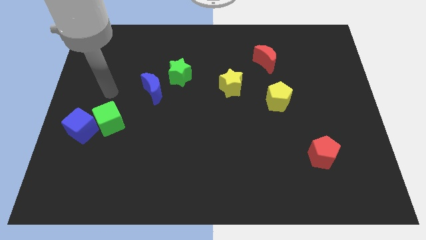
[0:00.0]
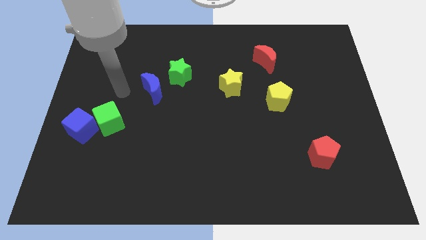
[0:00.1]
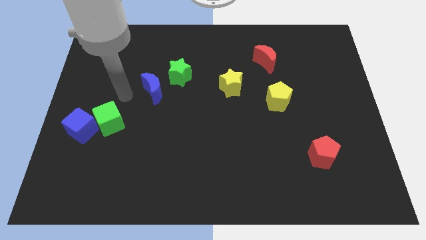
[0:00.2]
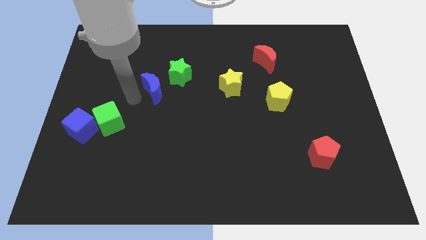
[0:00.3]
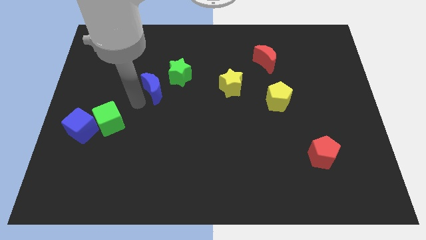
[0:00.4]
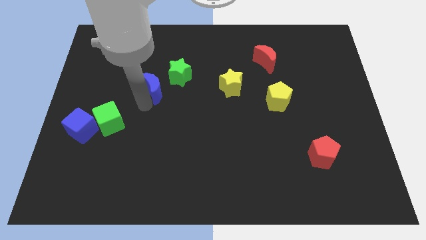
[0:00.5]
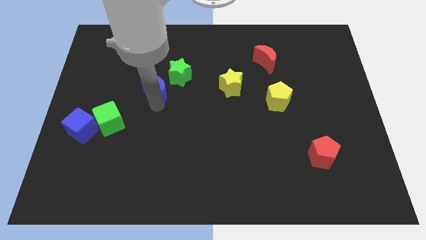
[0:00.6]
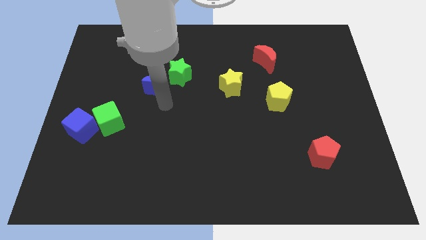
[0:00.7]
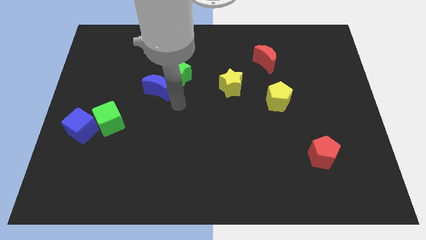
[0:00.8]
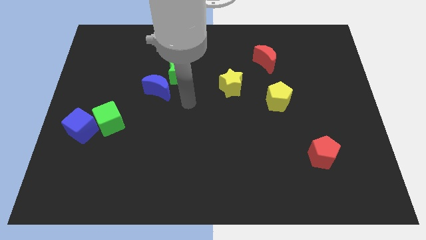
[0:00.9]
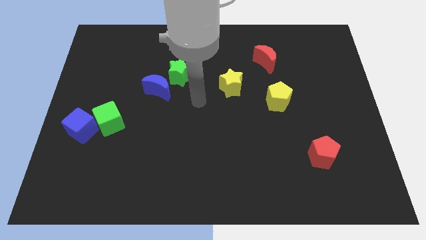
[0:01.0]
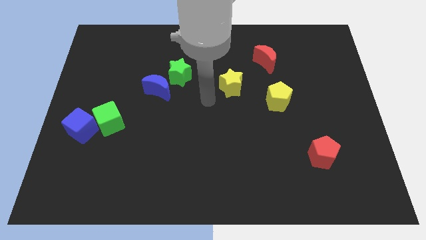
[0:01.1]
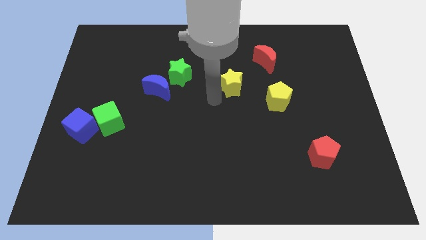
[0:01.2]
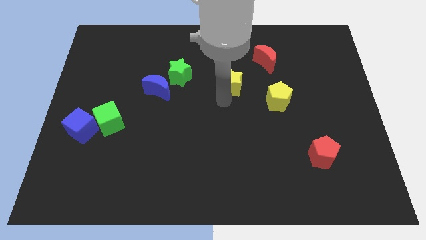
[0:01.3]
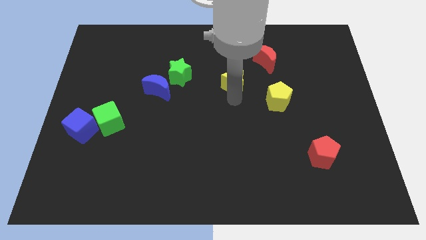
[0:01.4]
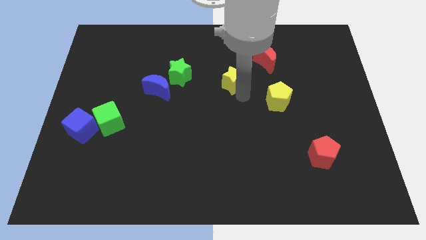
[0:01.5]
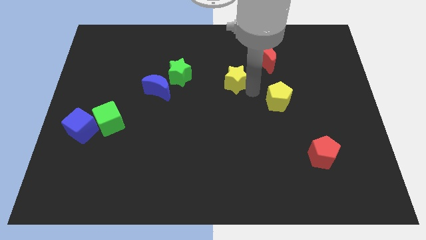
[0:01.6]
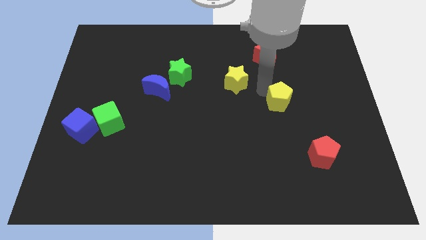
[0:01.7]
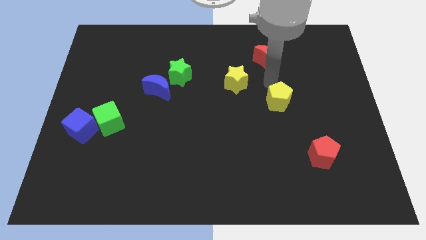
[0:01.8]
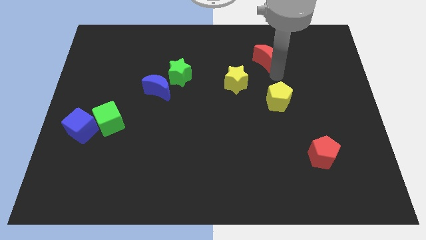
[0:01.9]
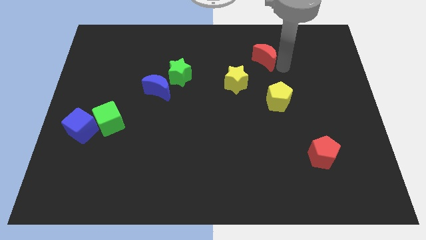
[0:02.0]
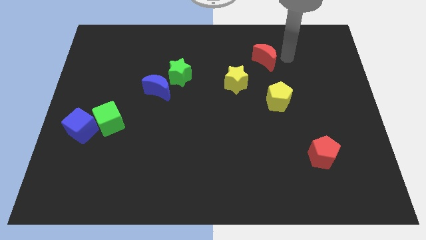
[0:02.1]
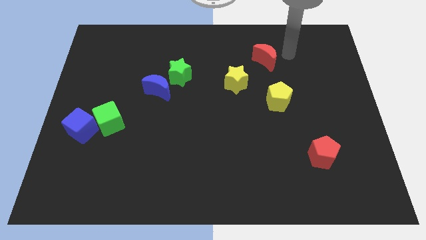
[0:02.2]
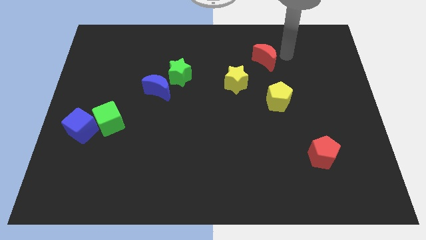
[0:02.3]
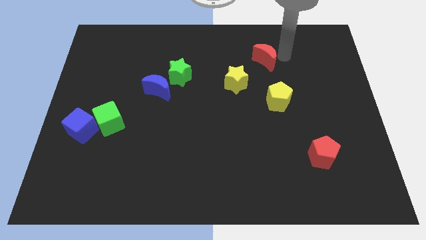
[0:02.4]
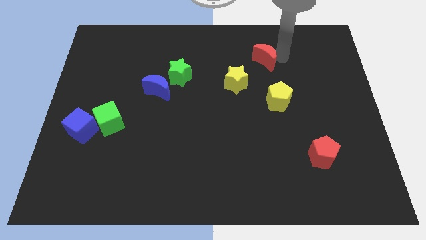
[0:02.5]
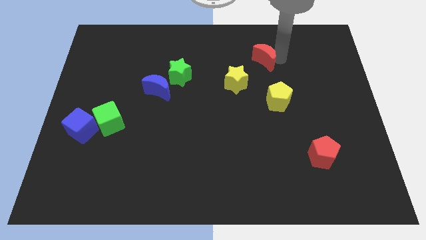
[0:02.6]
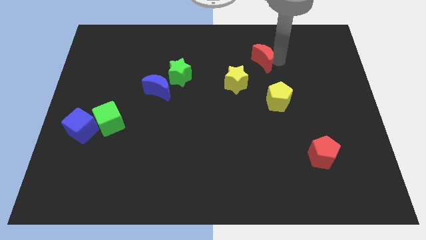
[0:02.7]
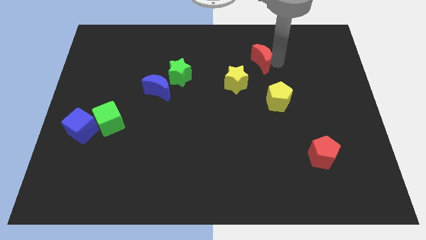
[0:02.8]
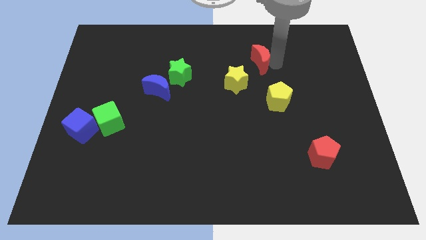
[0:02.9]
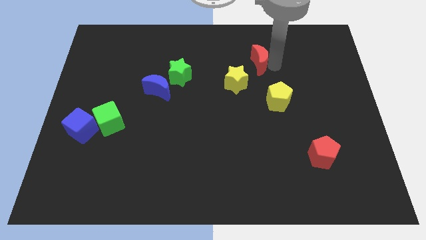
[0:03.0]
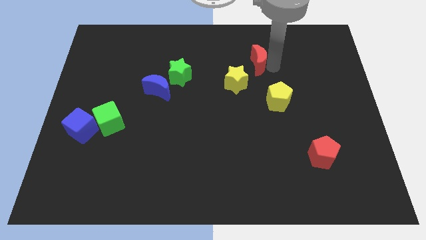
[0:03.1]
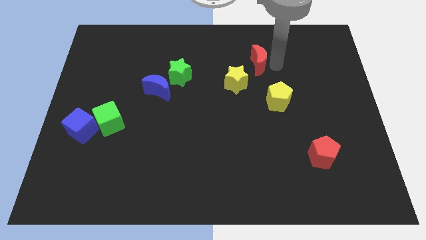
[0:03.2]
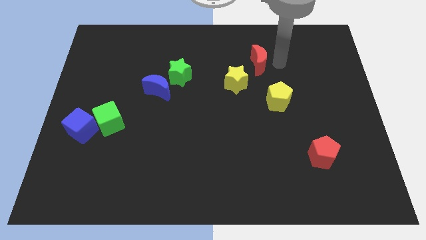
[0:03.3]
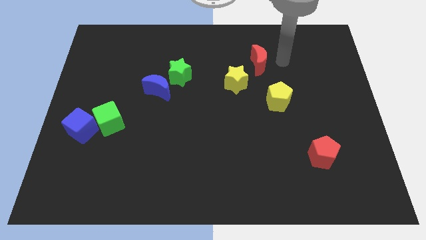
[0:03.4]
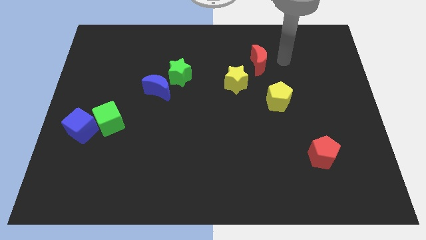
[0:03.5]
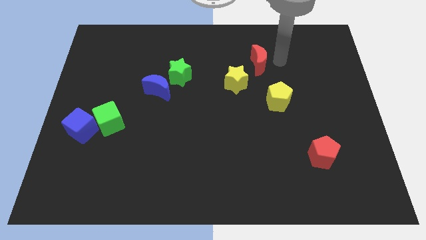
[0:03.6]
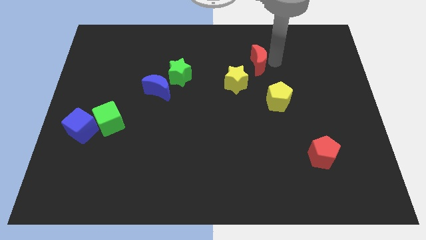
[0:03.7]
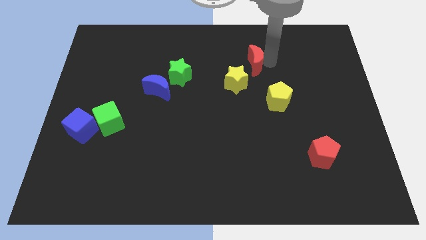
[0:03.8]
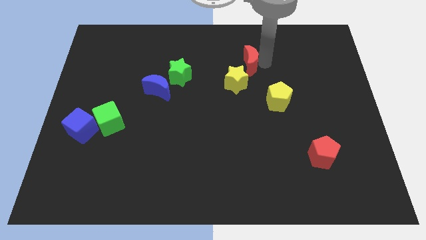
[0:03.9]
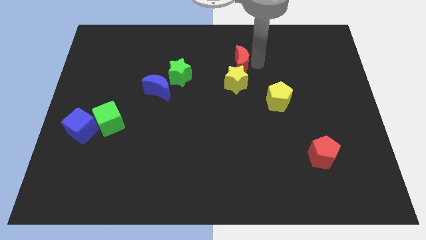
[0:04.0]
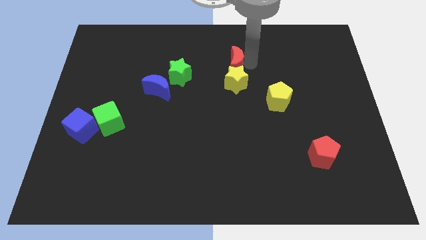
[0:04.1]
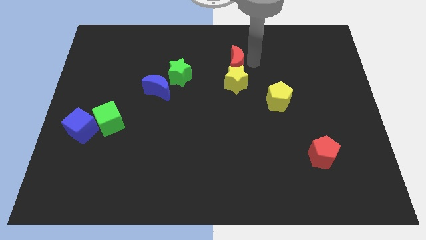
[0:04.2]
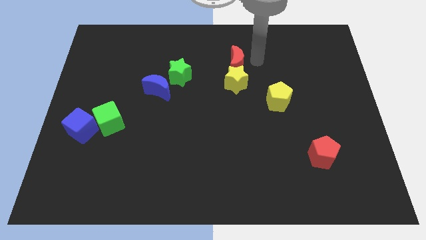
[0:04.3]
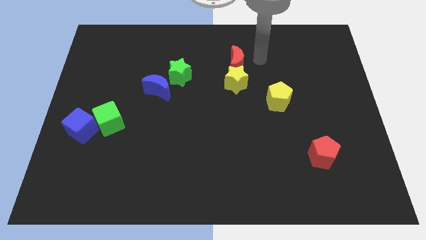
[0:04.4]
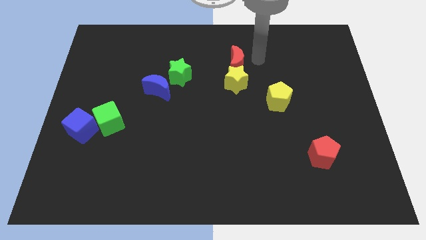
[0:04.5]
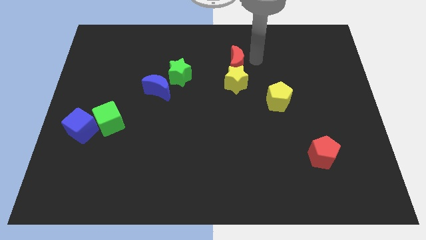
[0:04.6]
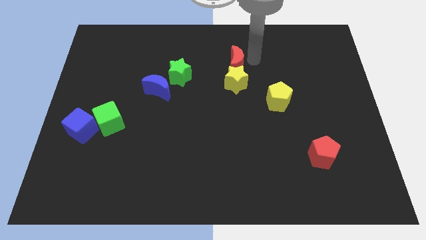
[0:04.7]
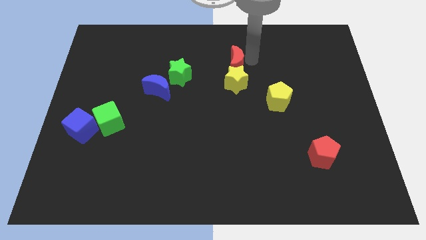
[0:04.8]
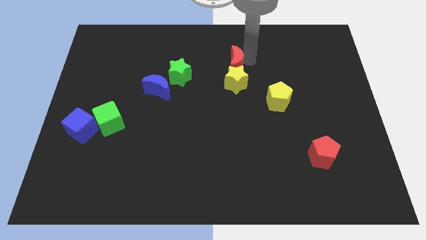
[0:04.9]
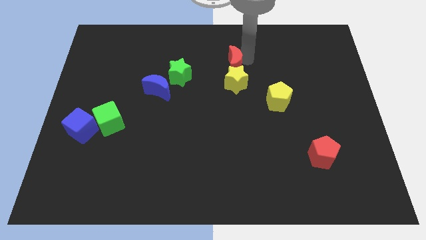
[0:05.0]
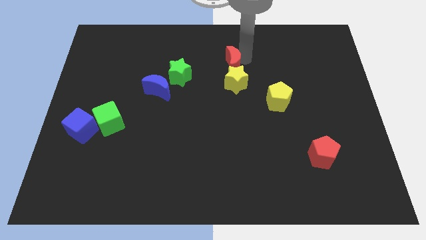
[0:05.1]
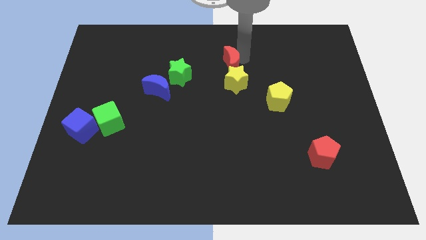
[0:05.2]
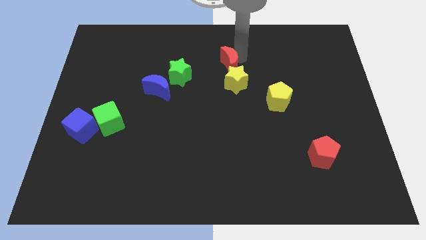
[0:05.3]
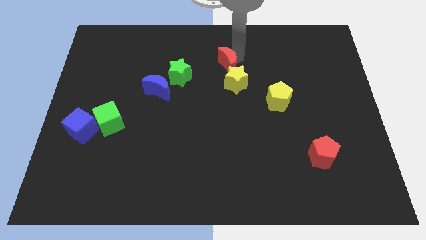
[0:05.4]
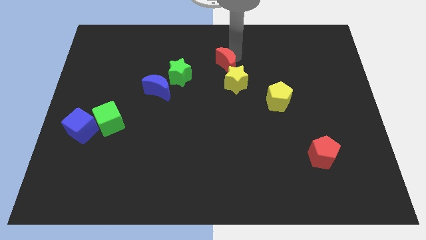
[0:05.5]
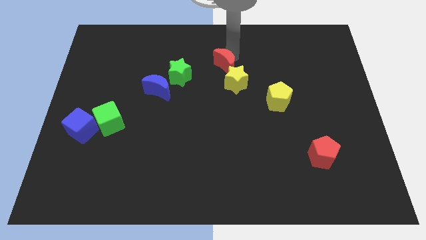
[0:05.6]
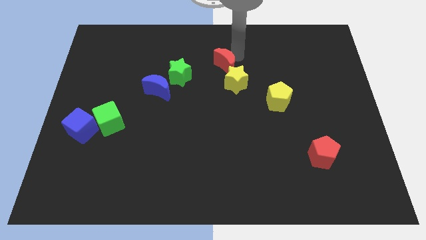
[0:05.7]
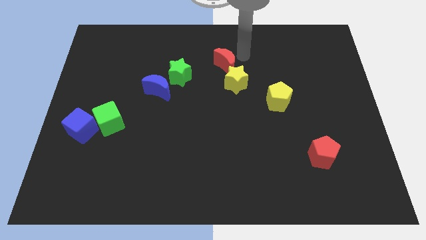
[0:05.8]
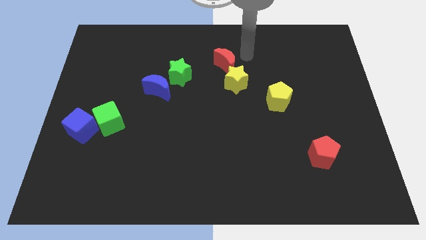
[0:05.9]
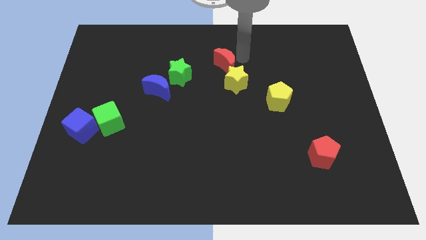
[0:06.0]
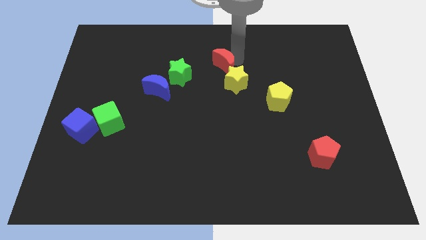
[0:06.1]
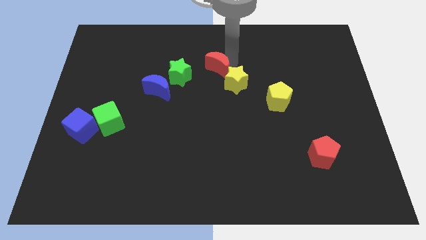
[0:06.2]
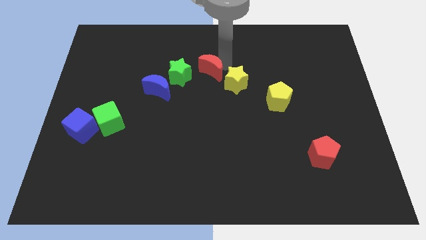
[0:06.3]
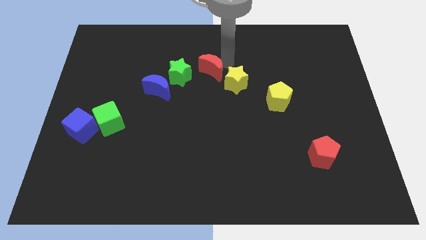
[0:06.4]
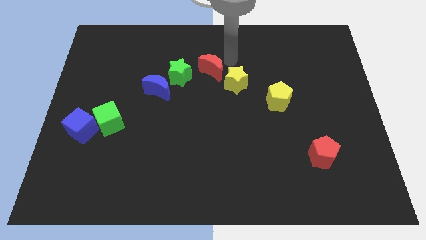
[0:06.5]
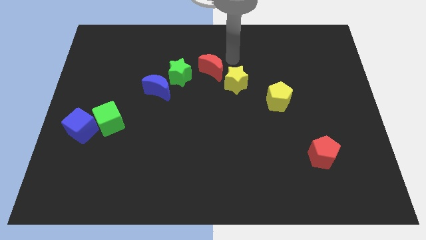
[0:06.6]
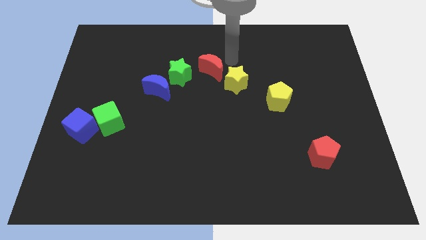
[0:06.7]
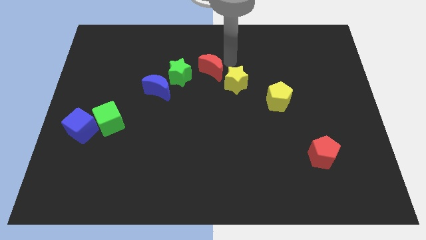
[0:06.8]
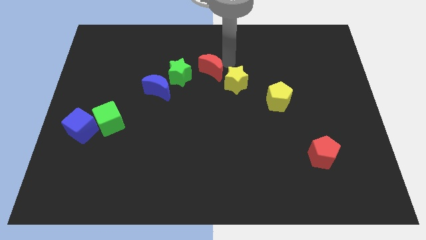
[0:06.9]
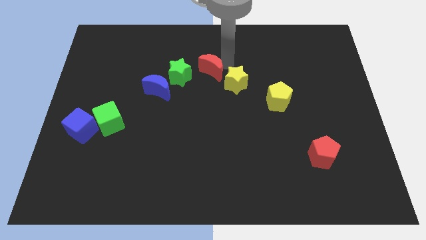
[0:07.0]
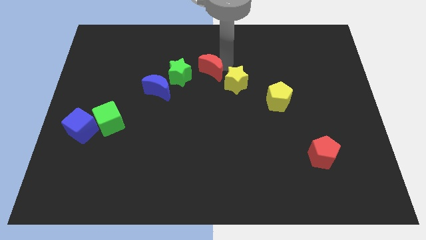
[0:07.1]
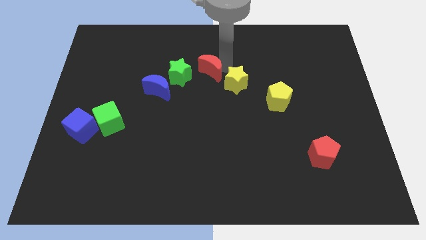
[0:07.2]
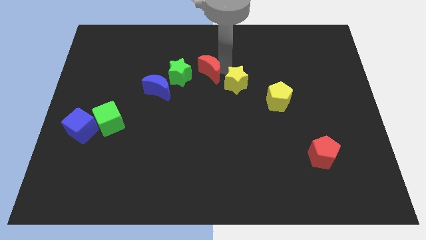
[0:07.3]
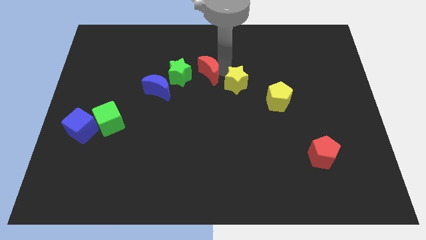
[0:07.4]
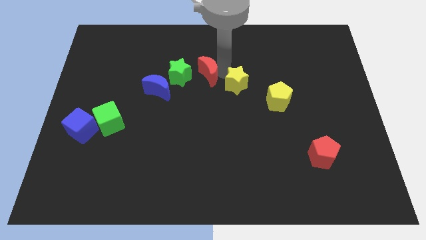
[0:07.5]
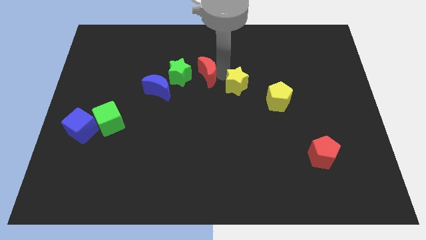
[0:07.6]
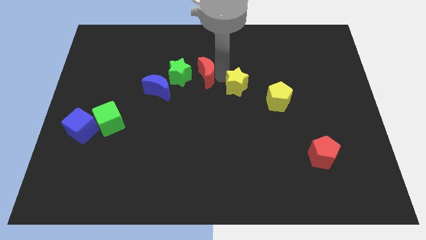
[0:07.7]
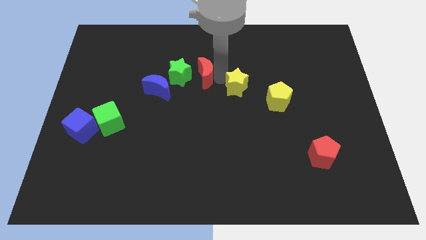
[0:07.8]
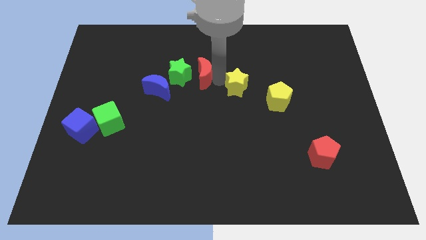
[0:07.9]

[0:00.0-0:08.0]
move the red moon next to the green star
